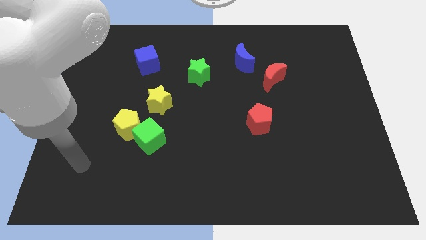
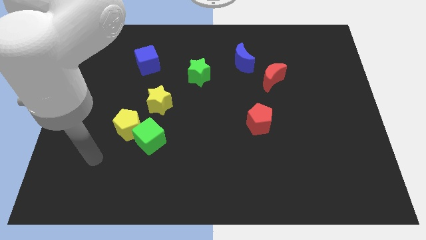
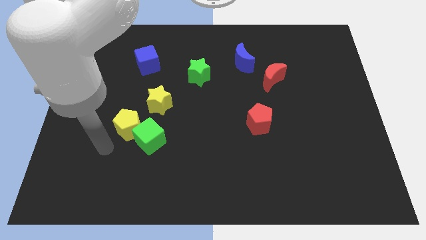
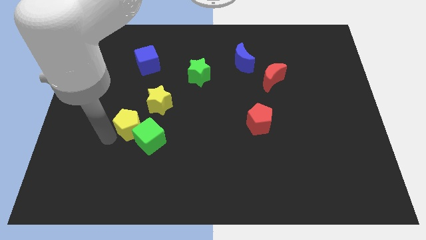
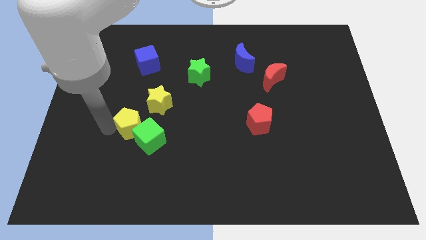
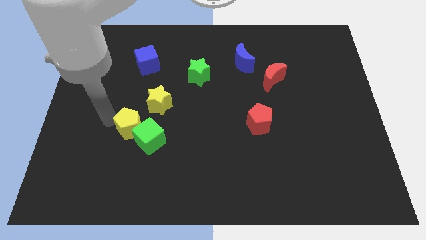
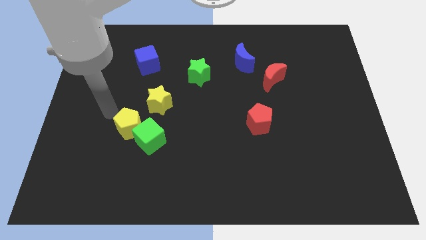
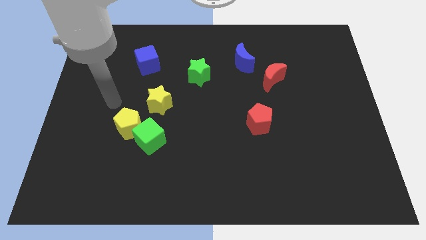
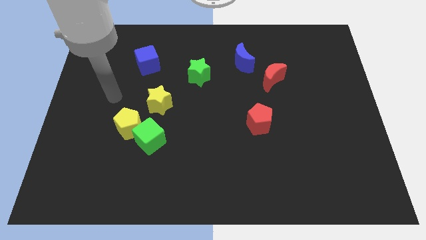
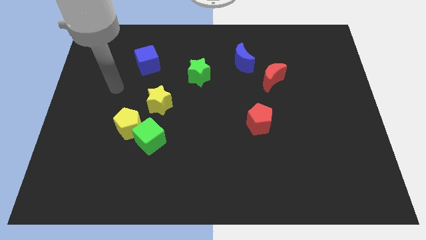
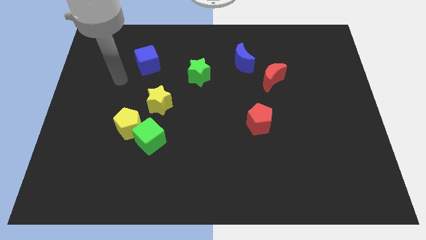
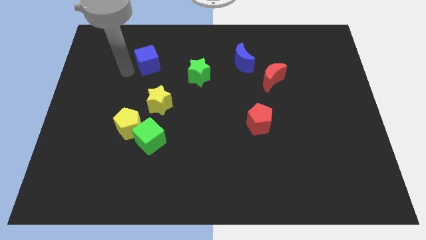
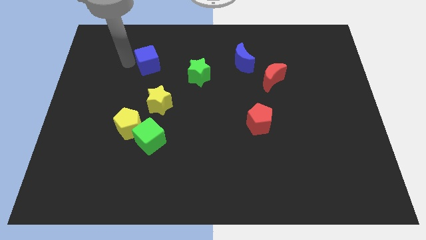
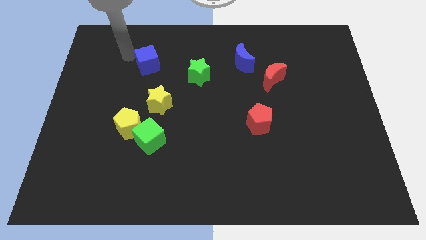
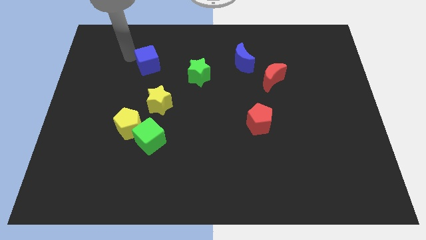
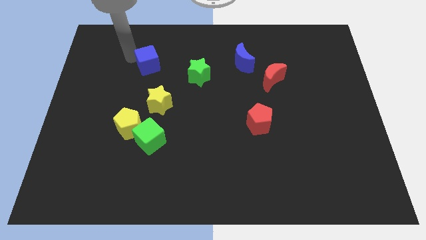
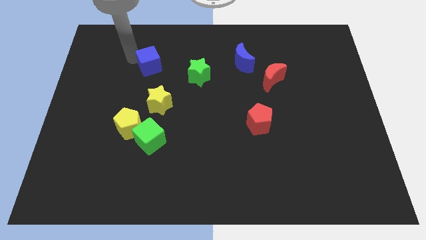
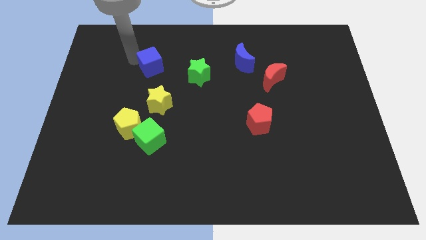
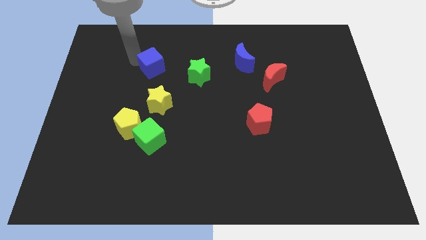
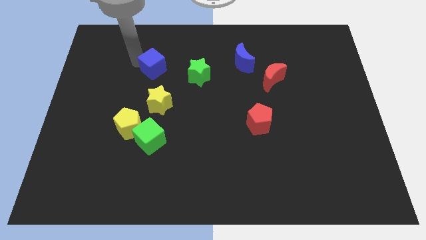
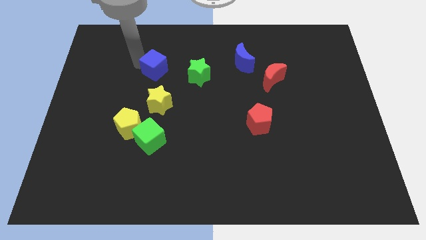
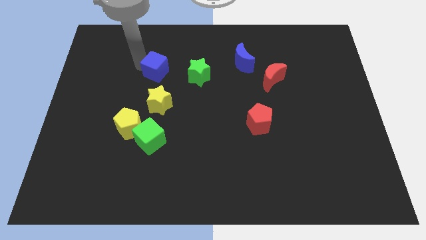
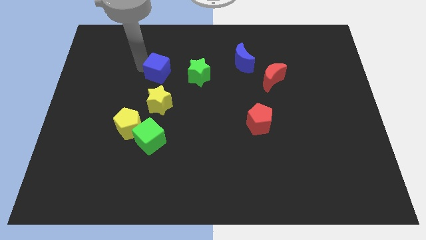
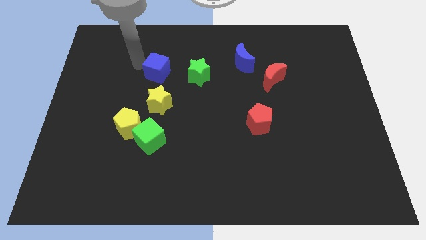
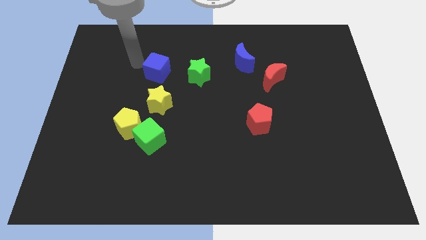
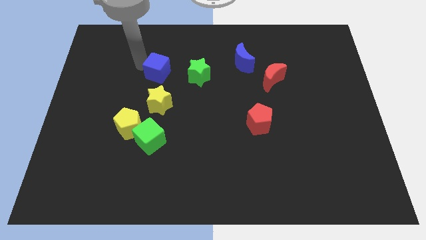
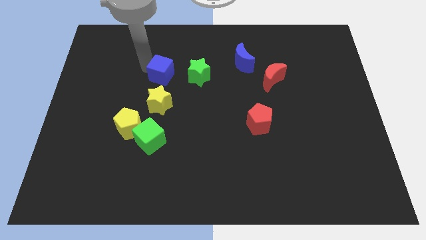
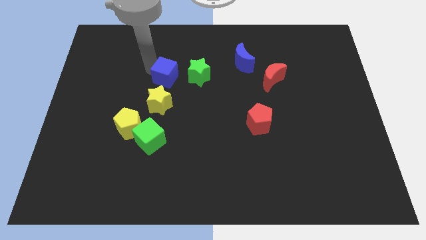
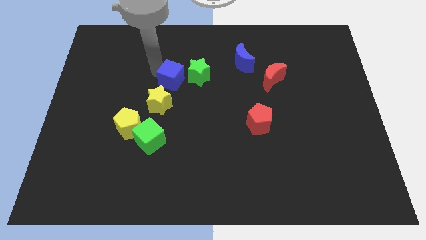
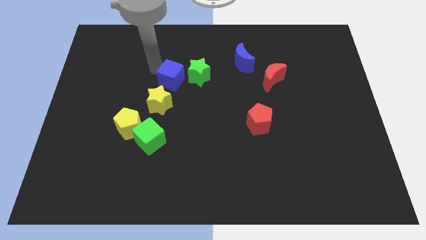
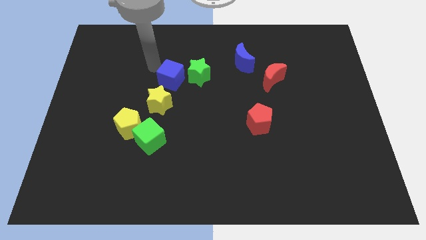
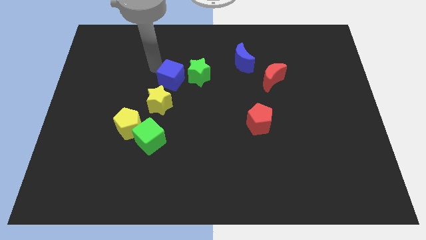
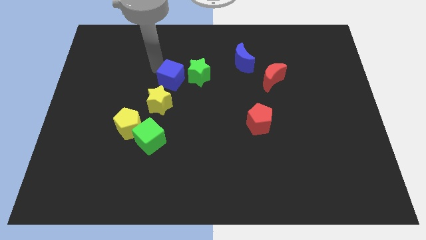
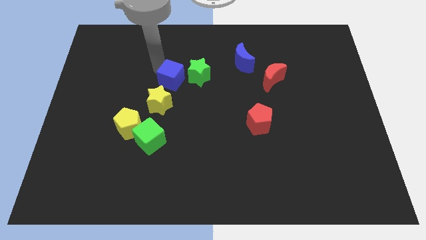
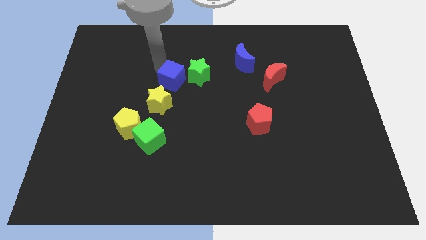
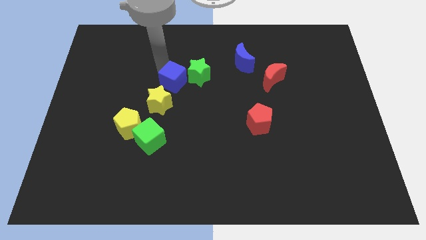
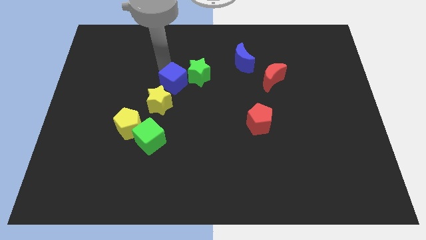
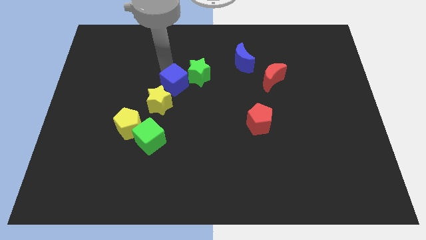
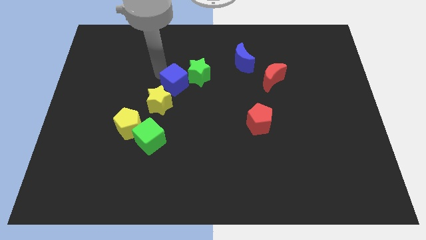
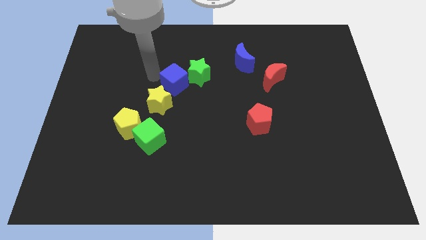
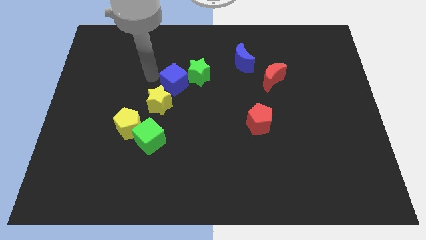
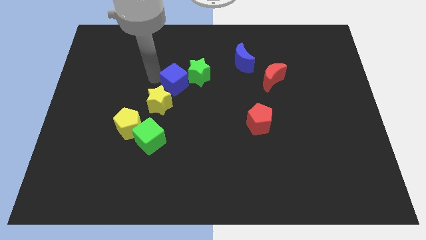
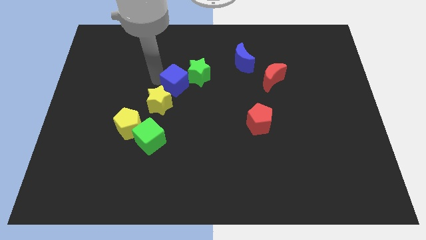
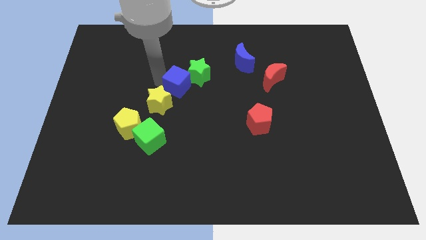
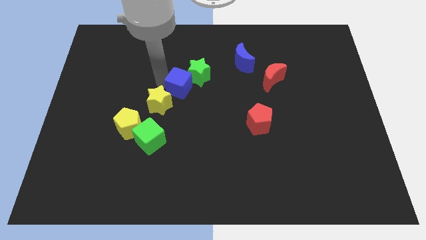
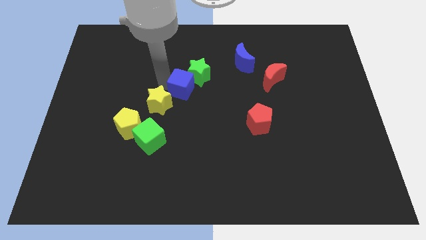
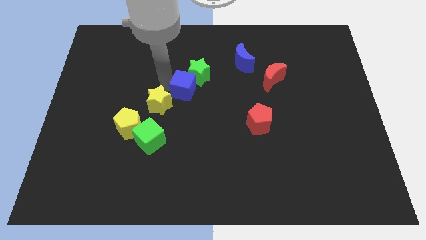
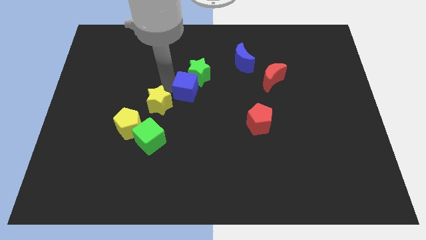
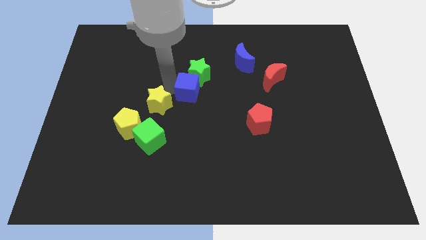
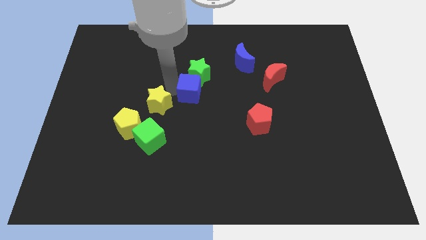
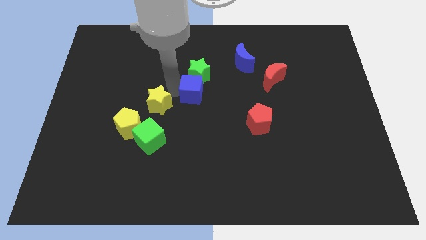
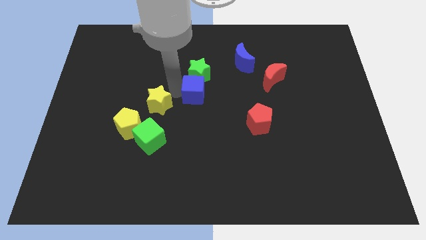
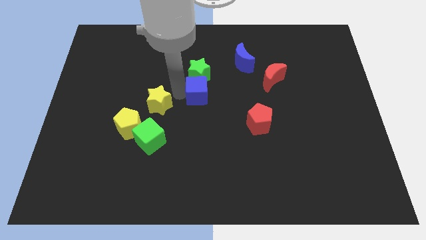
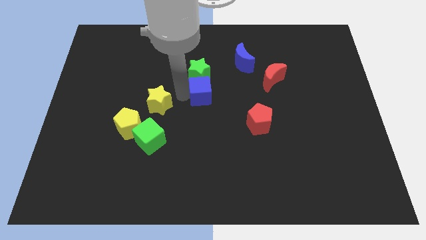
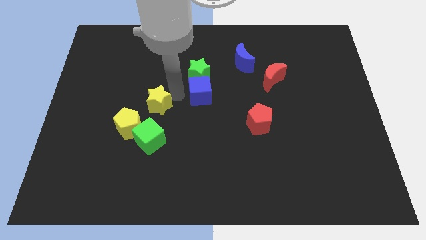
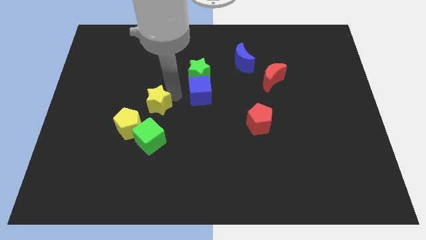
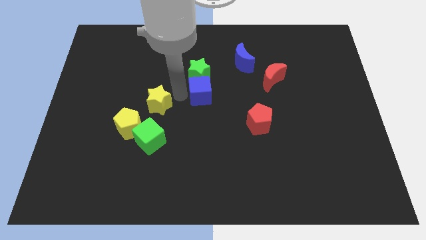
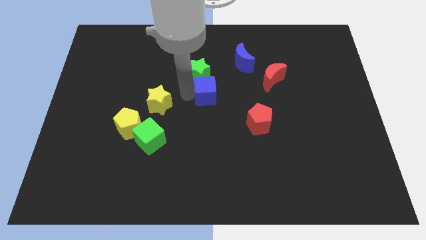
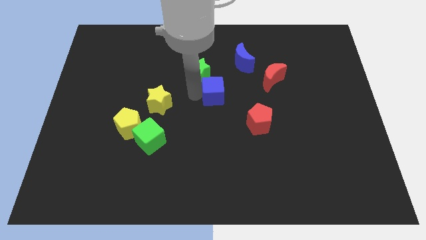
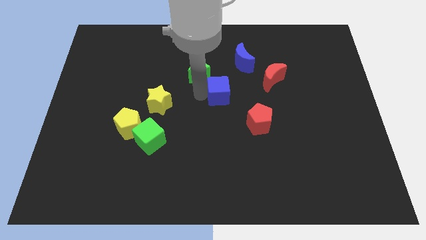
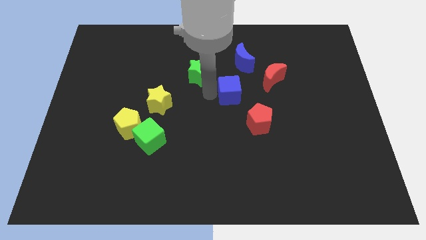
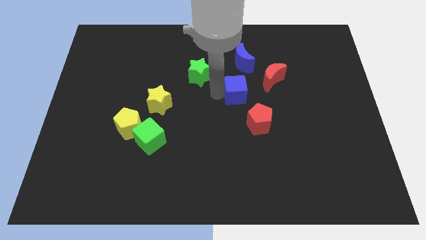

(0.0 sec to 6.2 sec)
push the blue cube to the bottom left of the red moon

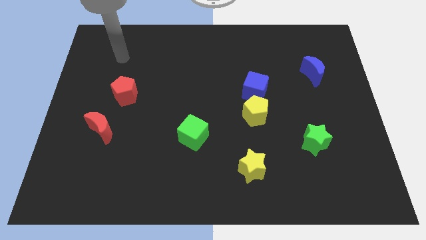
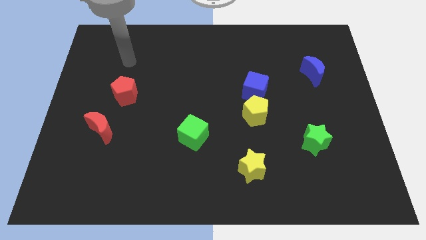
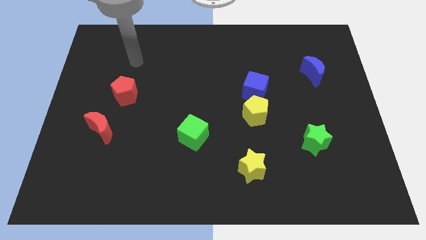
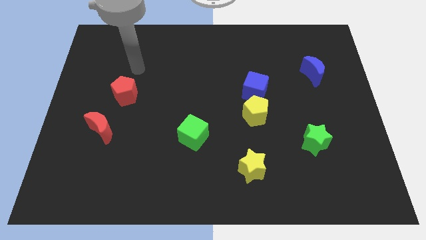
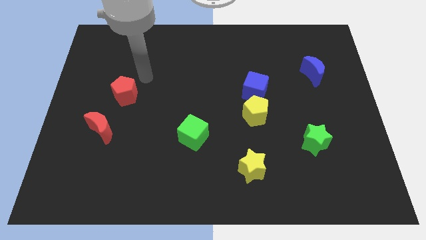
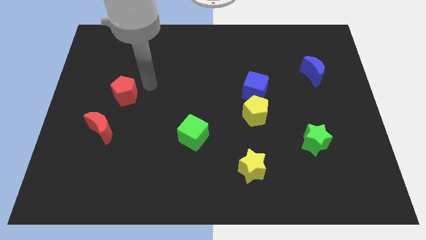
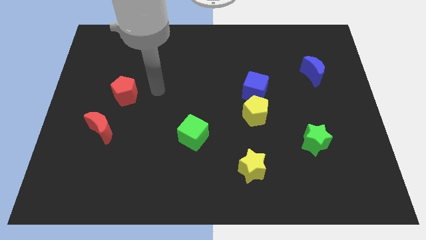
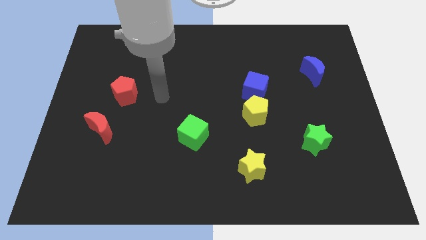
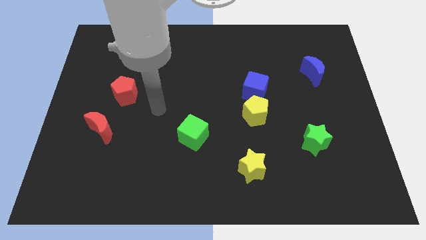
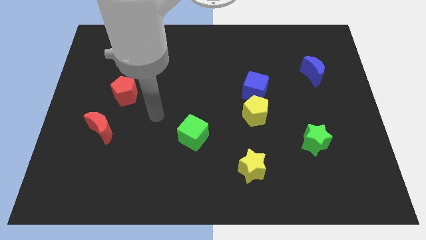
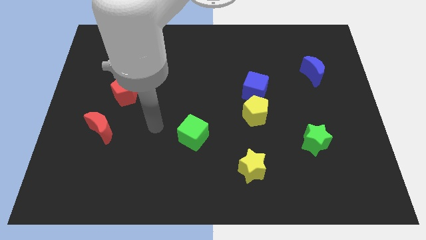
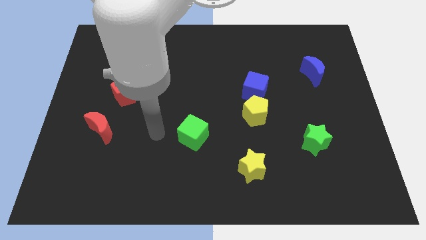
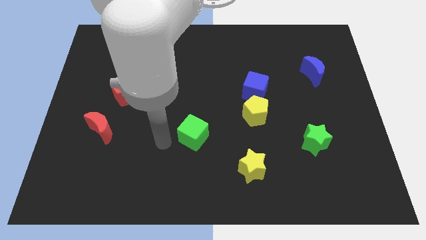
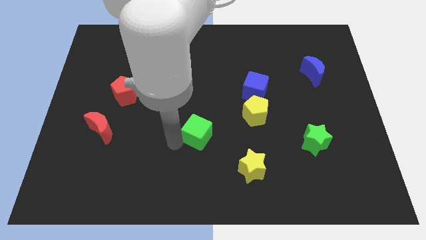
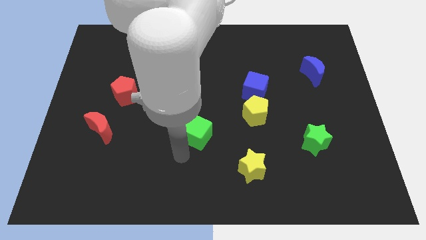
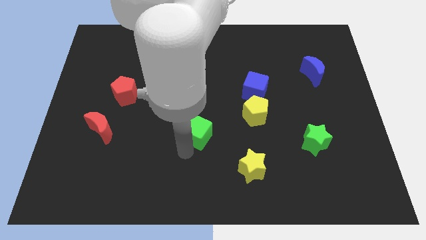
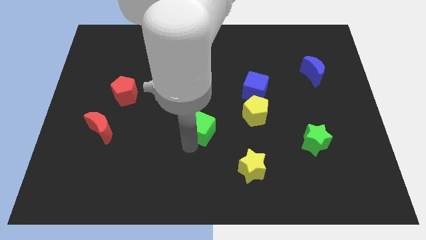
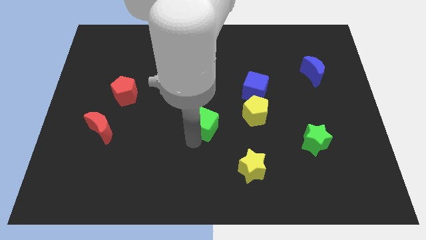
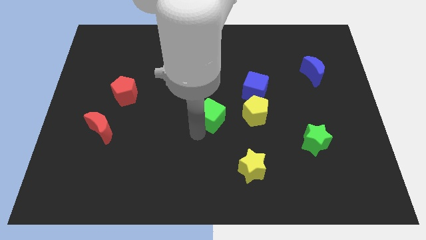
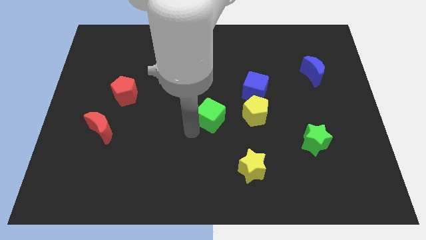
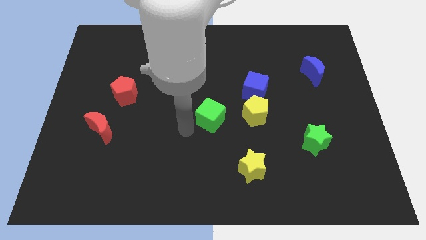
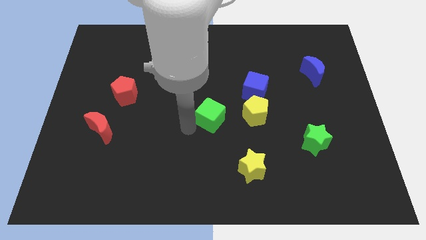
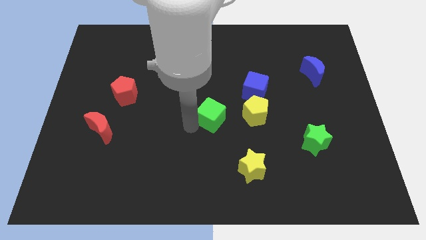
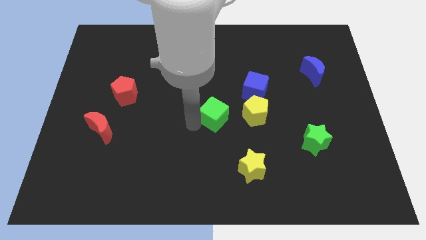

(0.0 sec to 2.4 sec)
push the green cube diagonally down and to the left of the blue cube
